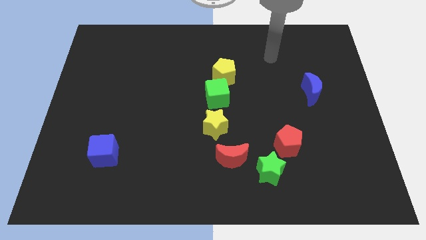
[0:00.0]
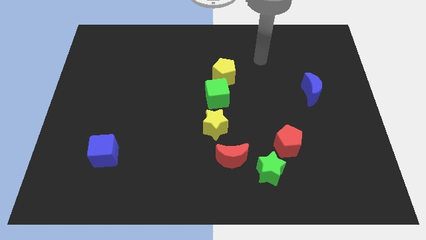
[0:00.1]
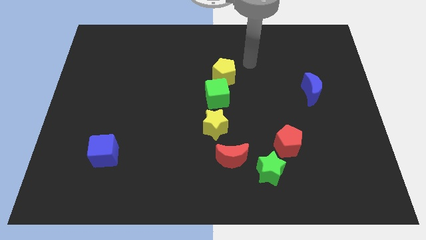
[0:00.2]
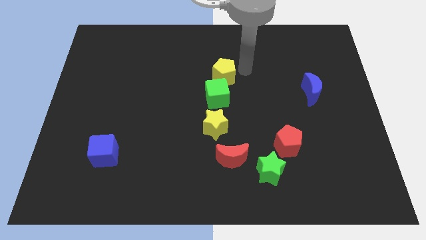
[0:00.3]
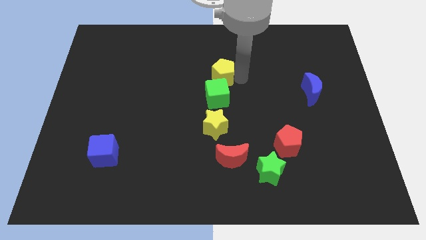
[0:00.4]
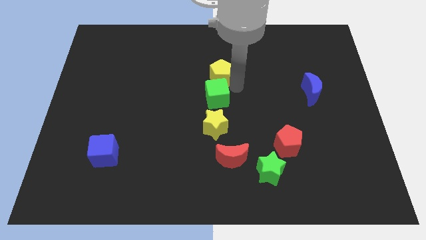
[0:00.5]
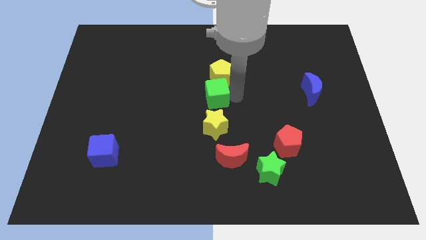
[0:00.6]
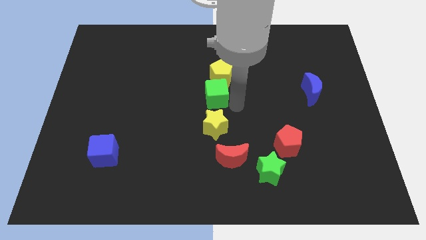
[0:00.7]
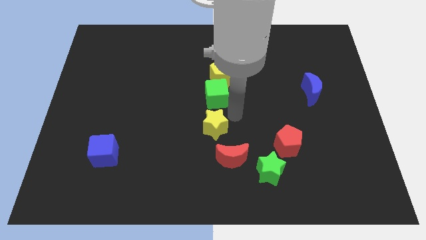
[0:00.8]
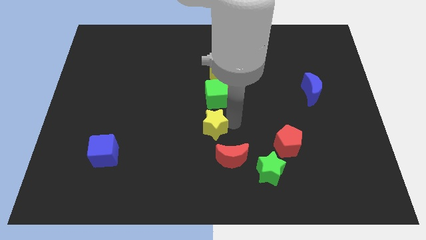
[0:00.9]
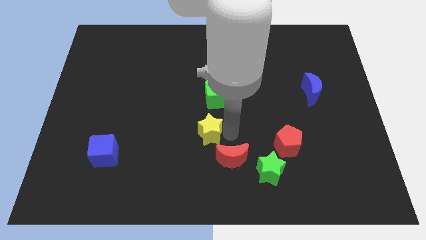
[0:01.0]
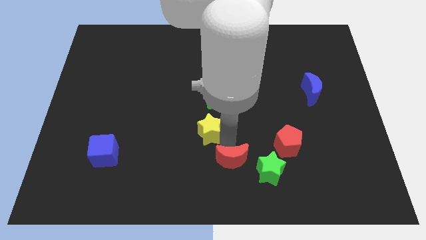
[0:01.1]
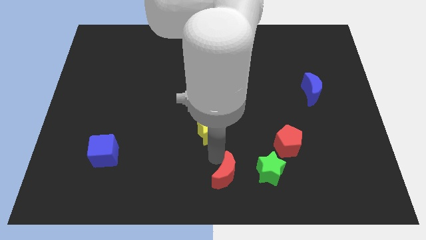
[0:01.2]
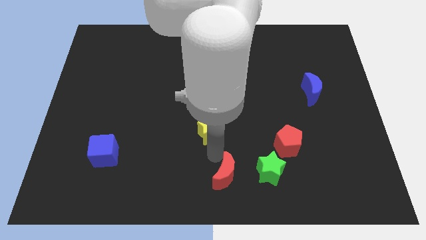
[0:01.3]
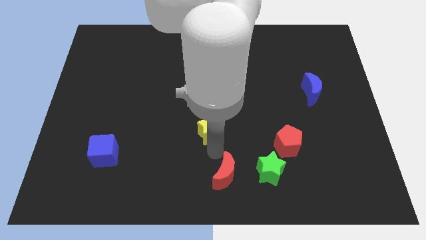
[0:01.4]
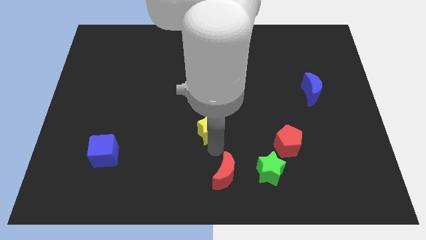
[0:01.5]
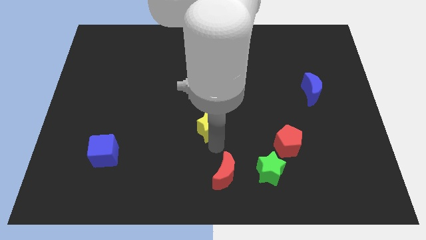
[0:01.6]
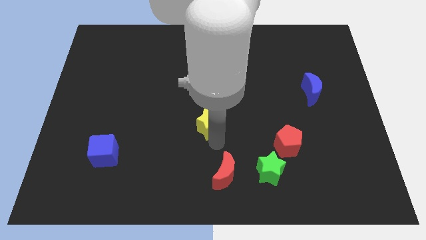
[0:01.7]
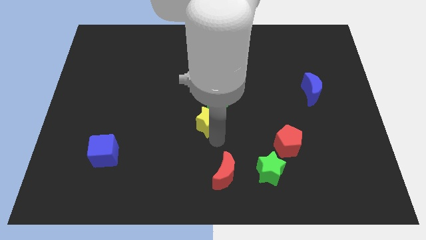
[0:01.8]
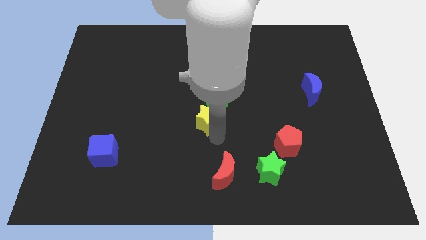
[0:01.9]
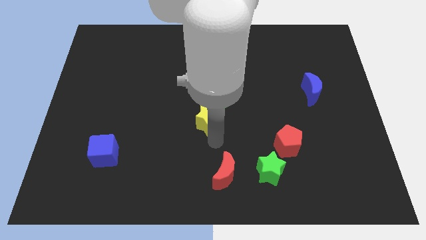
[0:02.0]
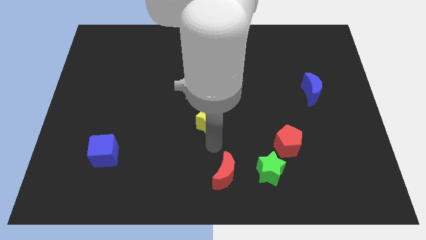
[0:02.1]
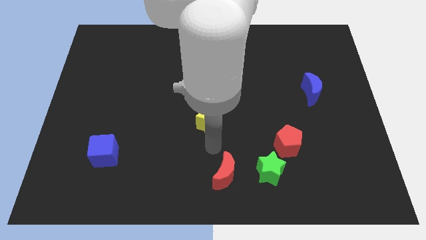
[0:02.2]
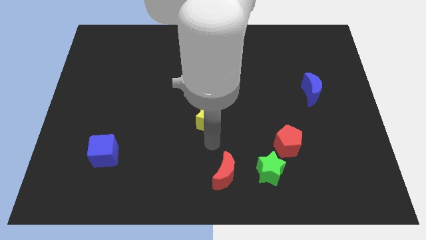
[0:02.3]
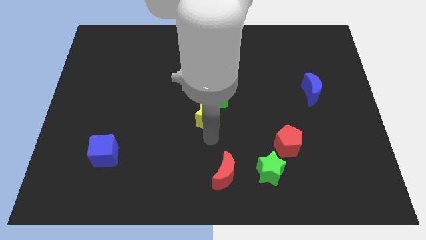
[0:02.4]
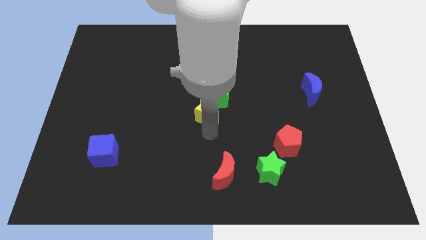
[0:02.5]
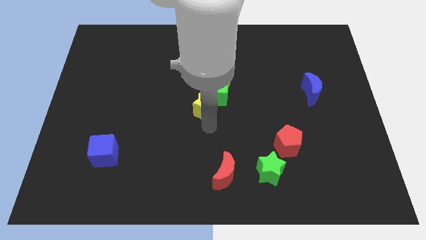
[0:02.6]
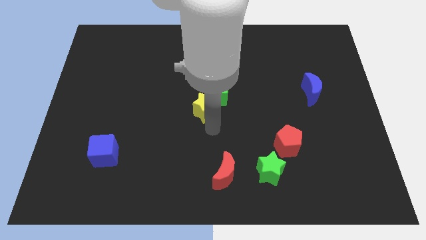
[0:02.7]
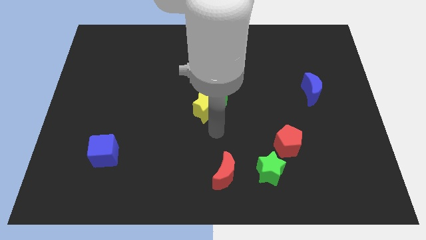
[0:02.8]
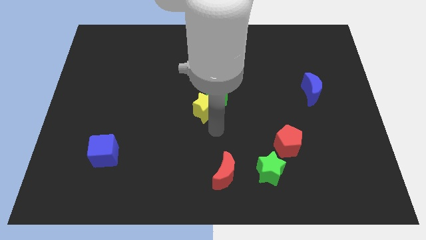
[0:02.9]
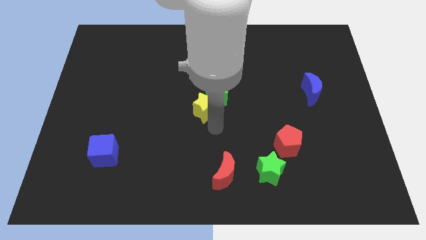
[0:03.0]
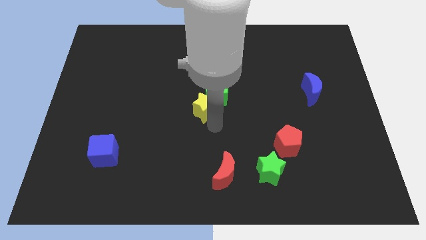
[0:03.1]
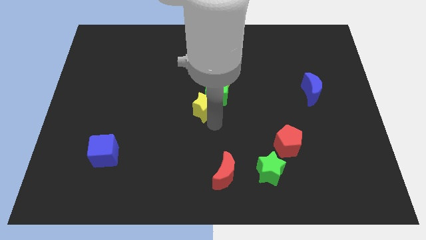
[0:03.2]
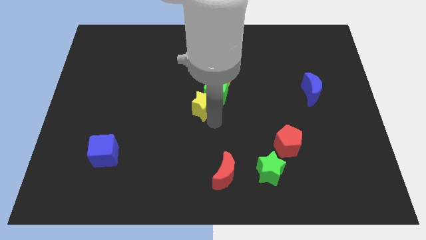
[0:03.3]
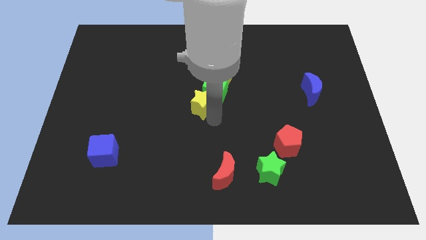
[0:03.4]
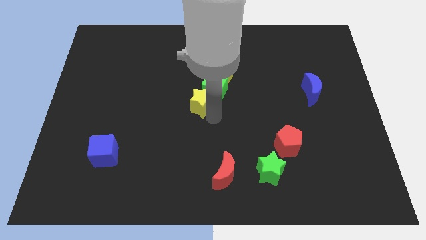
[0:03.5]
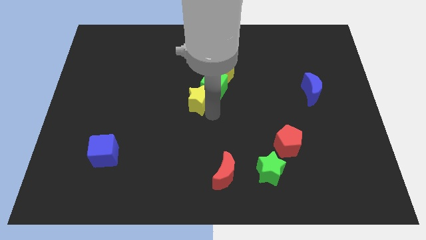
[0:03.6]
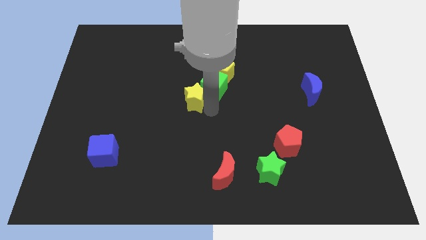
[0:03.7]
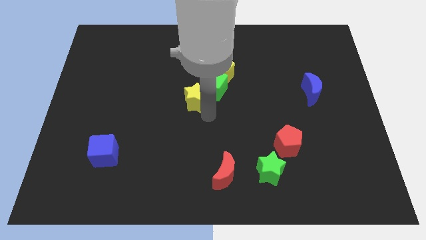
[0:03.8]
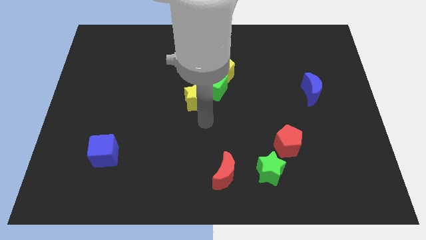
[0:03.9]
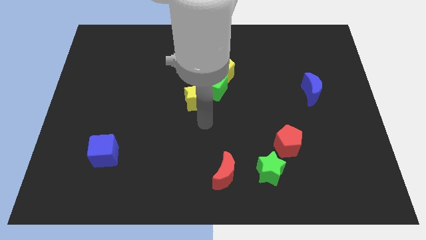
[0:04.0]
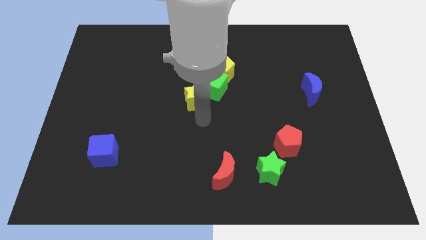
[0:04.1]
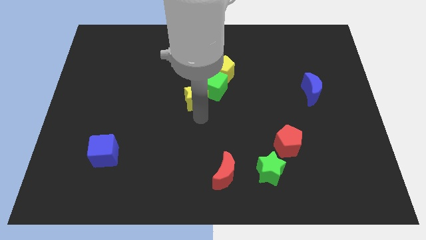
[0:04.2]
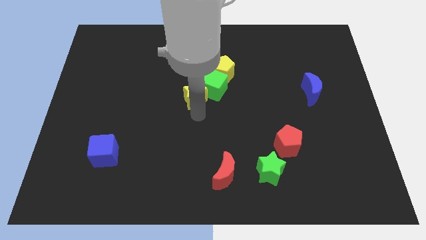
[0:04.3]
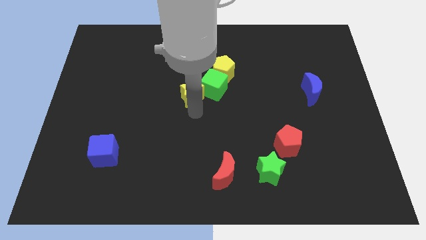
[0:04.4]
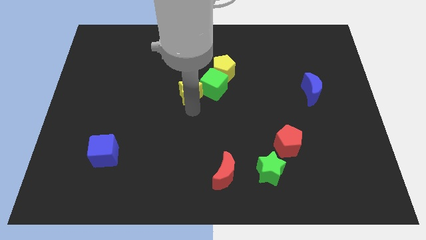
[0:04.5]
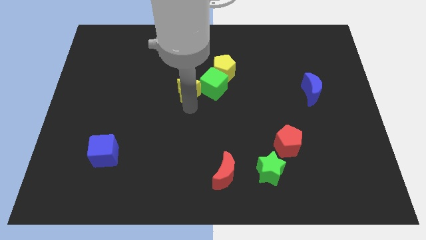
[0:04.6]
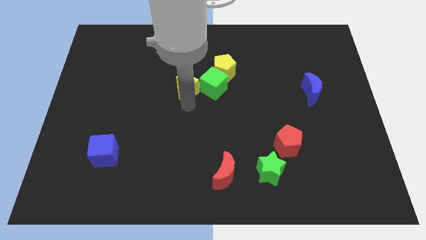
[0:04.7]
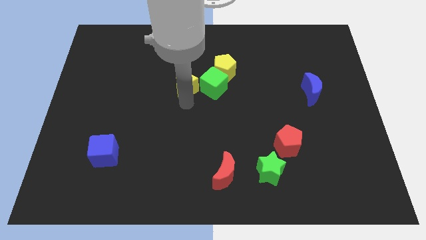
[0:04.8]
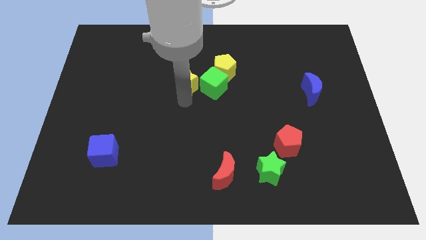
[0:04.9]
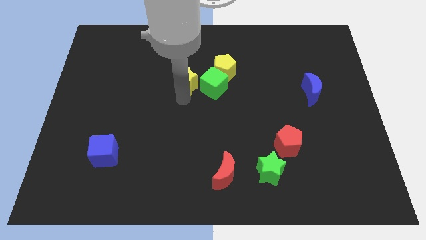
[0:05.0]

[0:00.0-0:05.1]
put the yellow star to the left of the yellow pentagon

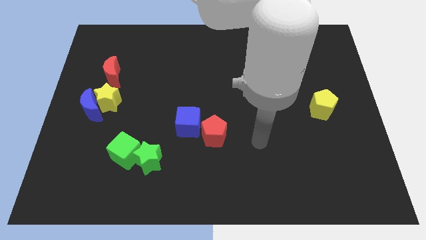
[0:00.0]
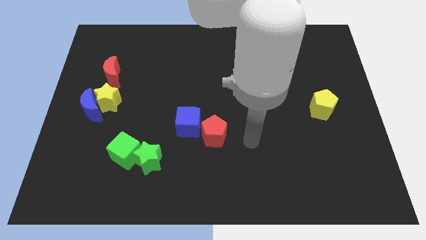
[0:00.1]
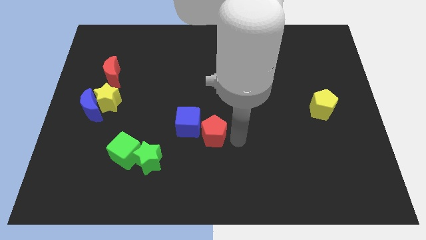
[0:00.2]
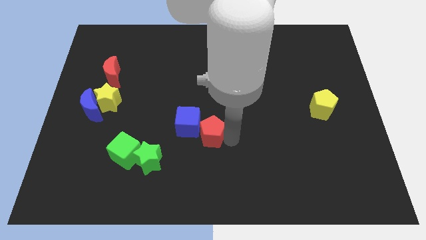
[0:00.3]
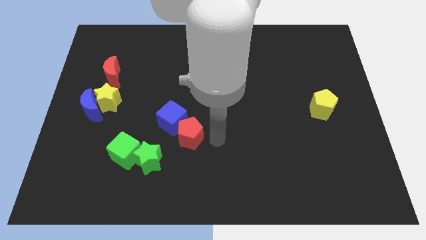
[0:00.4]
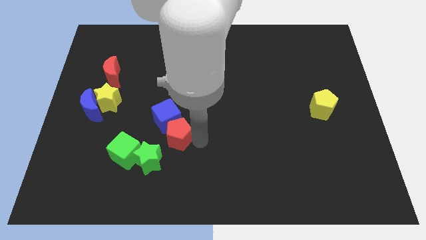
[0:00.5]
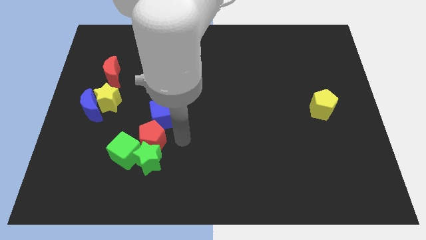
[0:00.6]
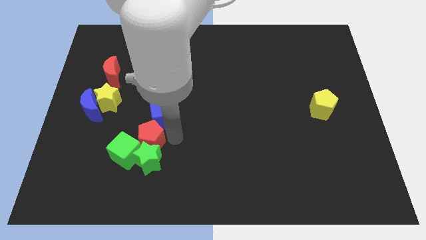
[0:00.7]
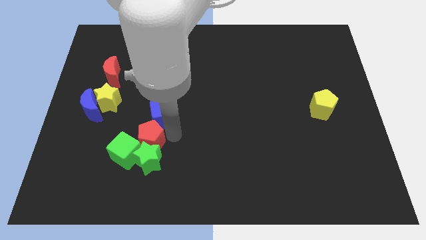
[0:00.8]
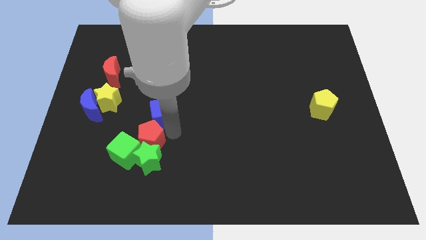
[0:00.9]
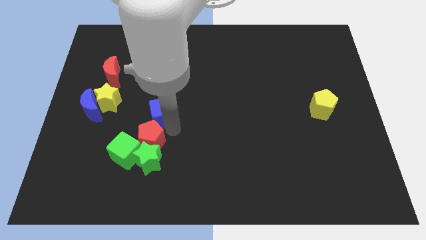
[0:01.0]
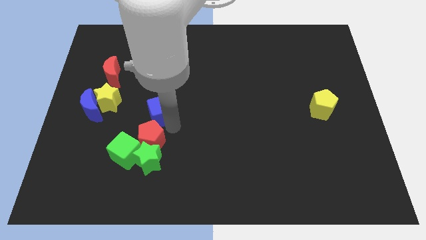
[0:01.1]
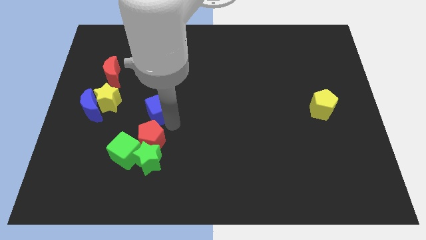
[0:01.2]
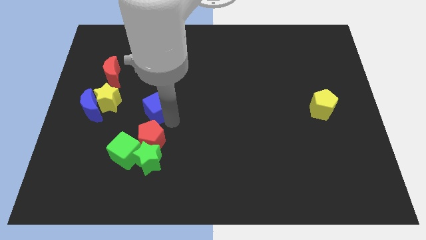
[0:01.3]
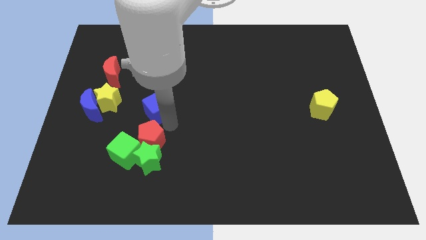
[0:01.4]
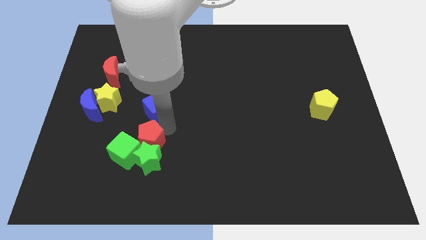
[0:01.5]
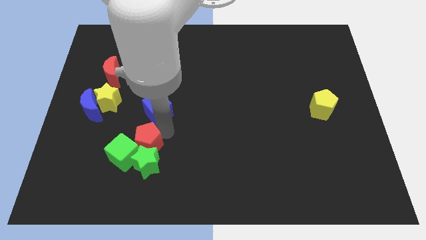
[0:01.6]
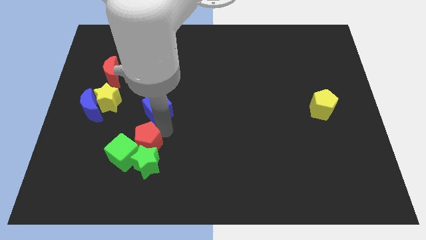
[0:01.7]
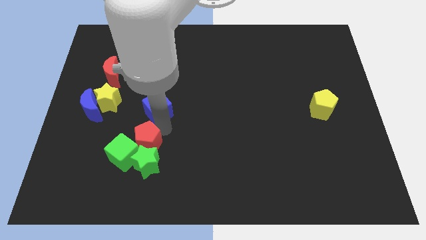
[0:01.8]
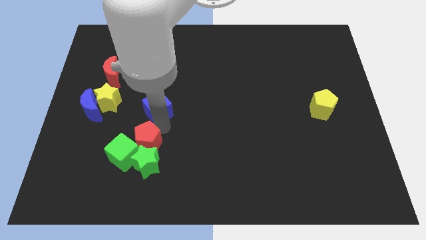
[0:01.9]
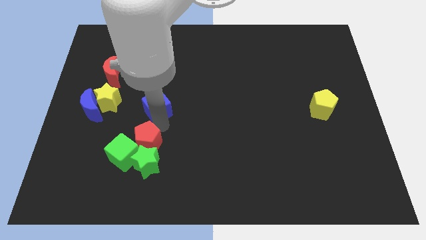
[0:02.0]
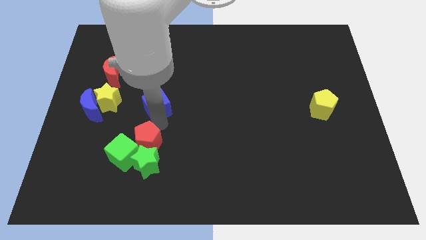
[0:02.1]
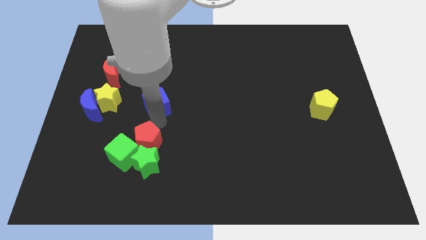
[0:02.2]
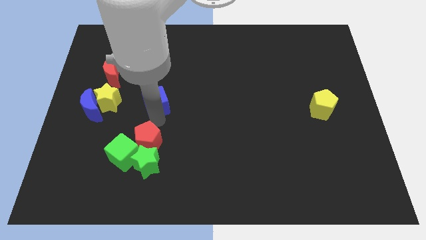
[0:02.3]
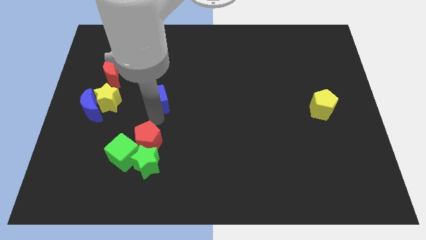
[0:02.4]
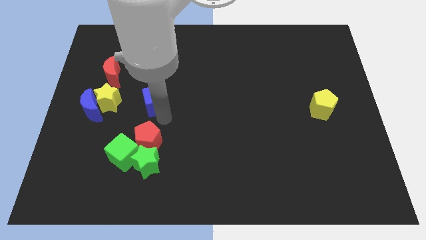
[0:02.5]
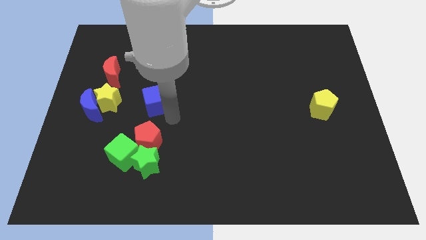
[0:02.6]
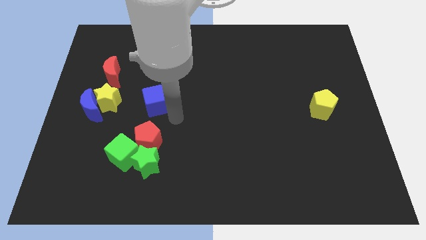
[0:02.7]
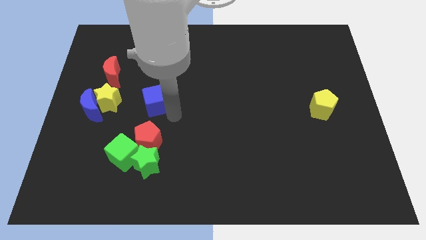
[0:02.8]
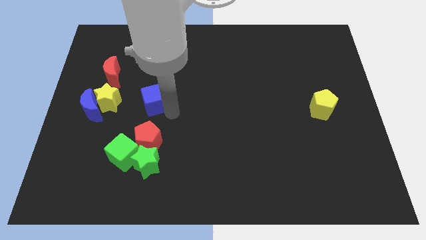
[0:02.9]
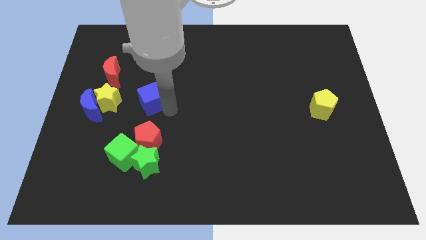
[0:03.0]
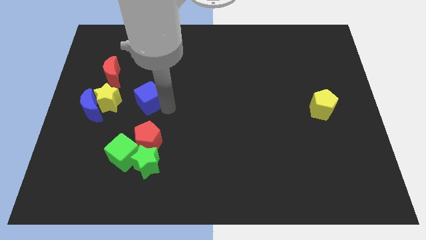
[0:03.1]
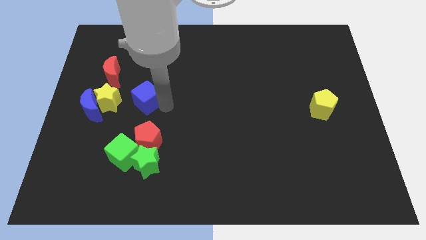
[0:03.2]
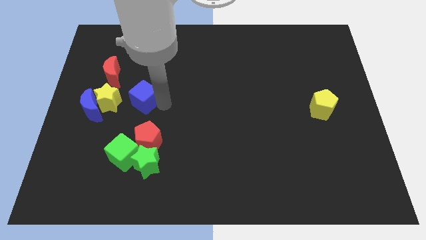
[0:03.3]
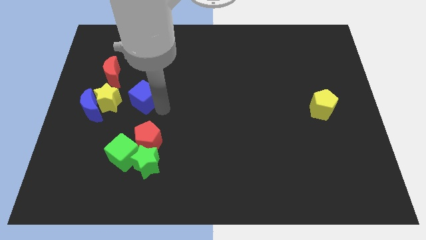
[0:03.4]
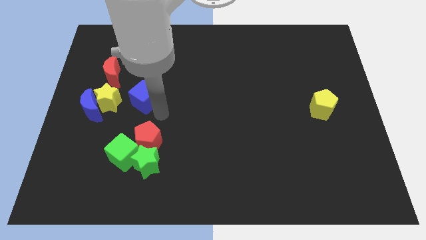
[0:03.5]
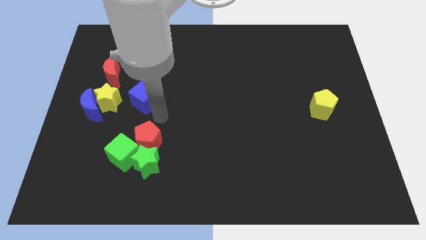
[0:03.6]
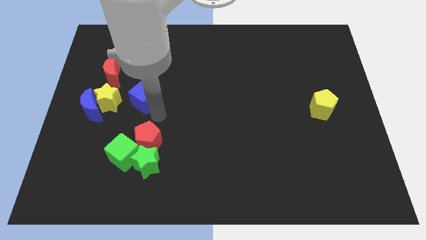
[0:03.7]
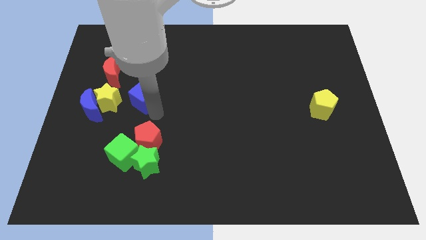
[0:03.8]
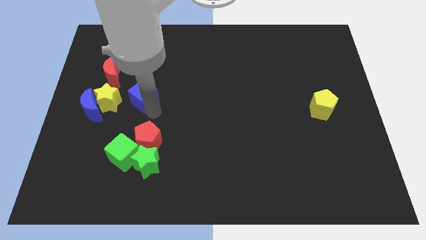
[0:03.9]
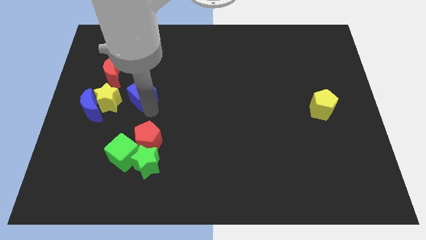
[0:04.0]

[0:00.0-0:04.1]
move the blue cube to the top right side of the yellow star
